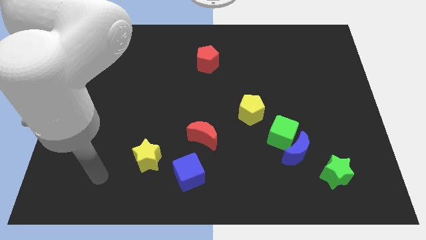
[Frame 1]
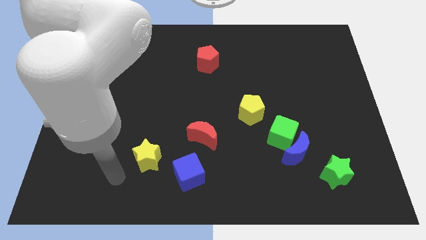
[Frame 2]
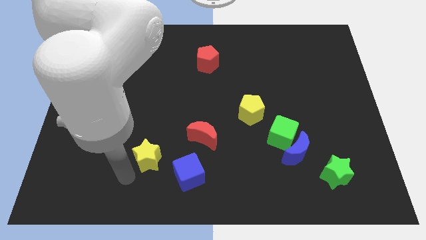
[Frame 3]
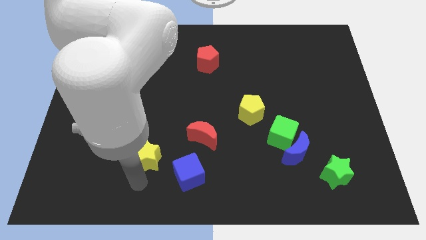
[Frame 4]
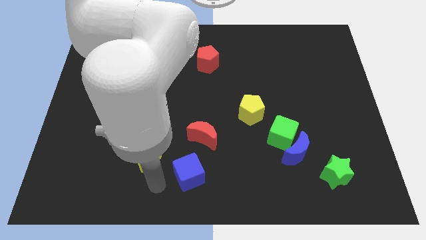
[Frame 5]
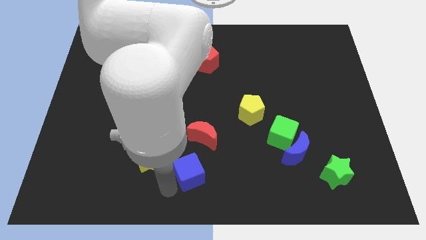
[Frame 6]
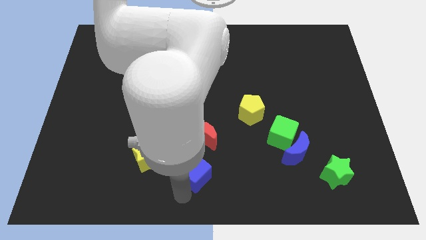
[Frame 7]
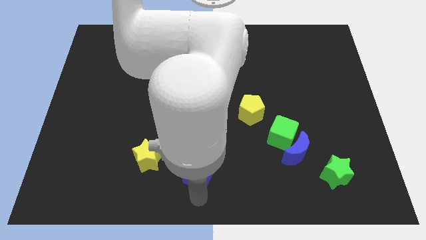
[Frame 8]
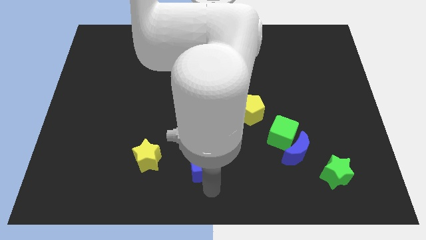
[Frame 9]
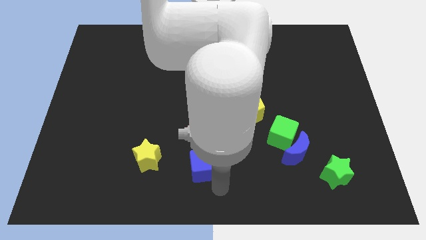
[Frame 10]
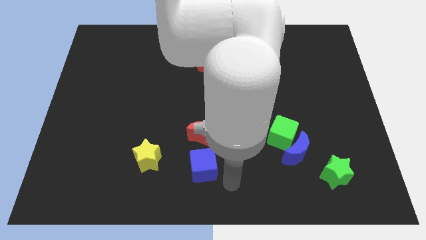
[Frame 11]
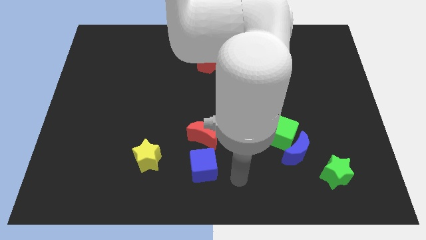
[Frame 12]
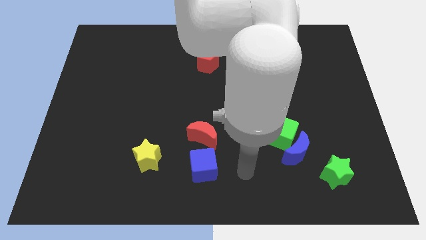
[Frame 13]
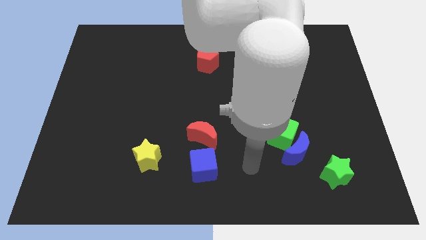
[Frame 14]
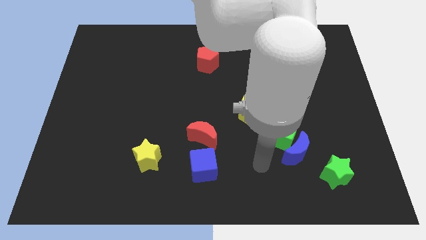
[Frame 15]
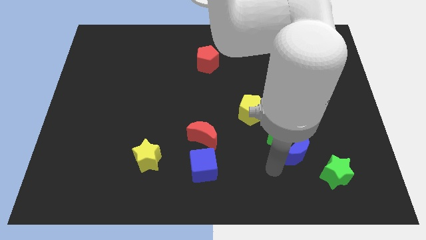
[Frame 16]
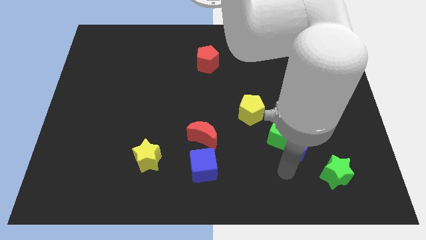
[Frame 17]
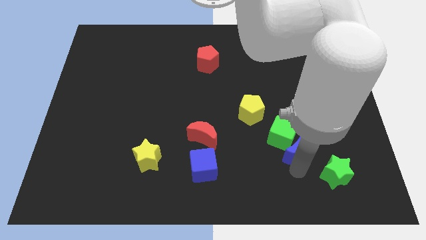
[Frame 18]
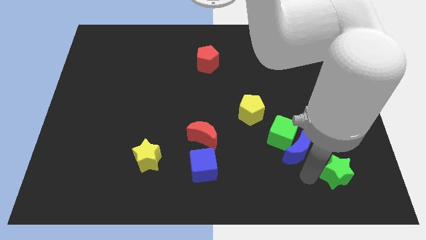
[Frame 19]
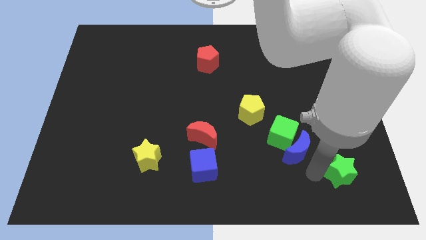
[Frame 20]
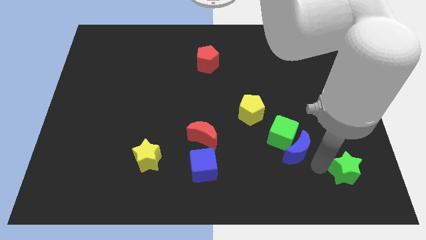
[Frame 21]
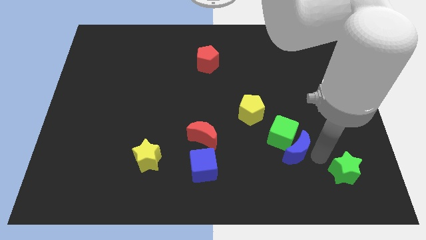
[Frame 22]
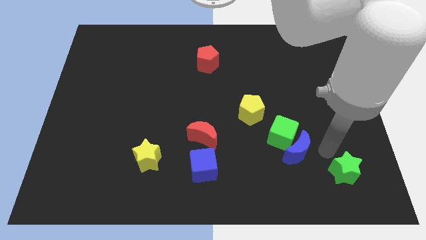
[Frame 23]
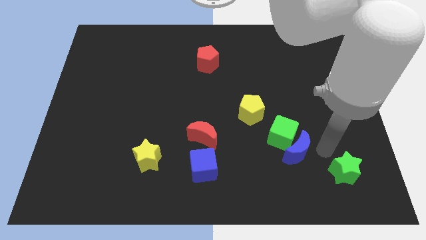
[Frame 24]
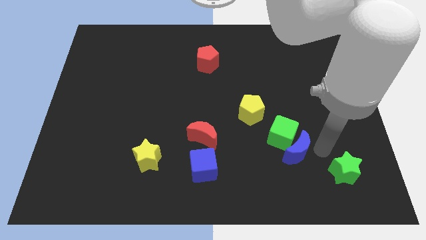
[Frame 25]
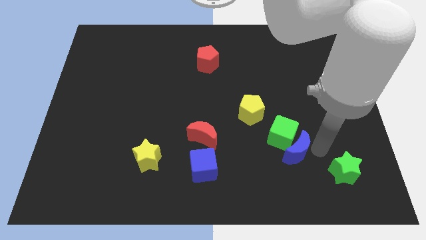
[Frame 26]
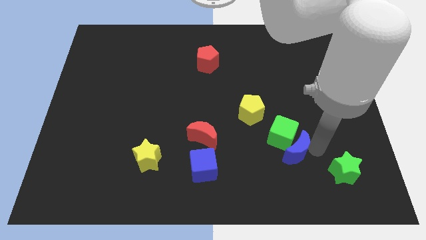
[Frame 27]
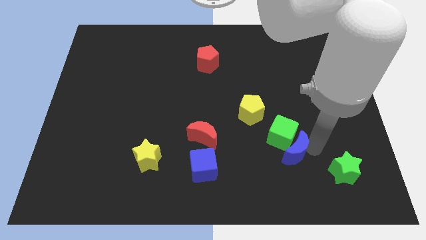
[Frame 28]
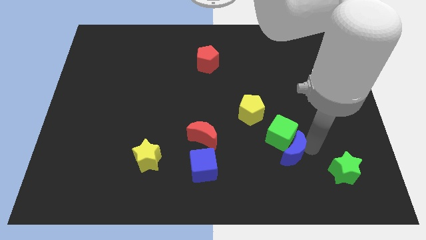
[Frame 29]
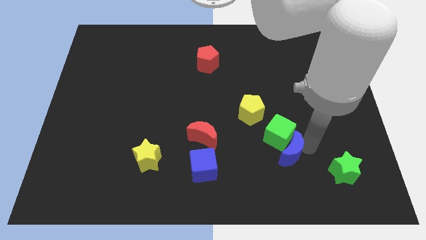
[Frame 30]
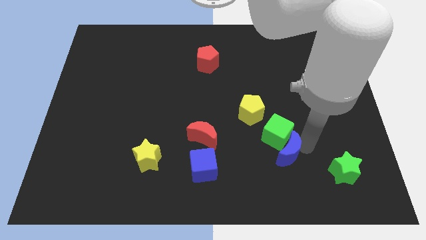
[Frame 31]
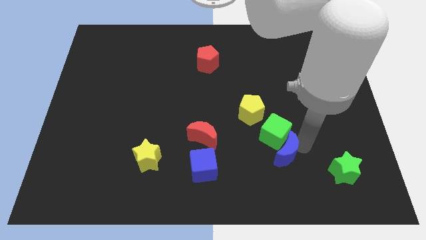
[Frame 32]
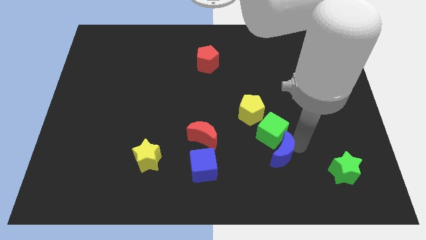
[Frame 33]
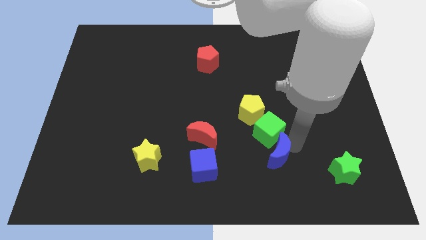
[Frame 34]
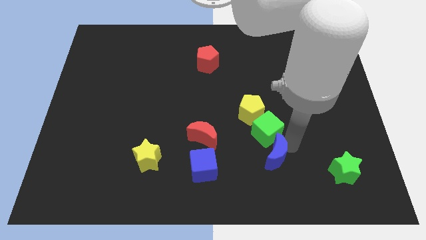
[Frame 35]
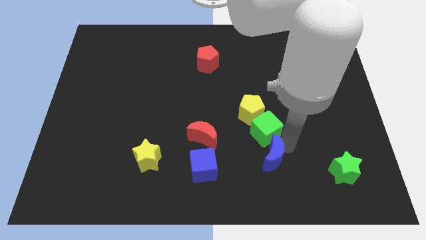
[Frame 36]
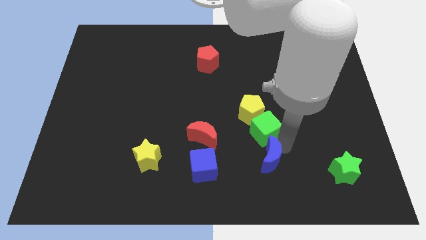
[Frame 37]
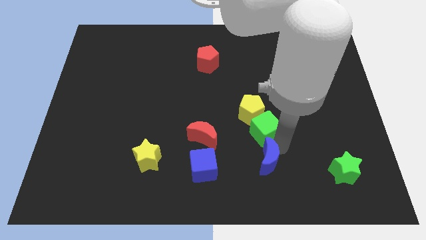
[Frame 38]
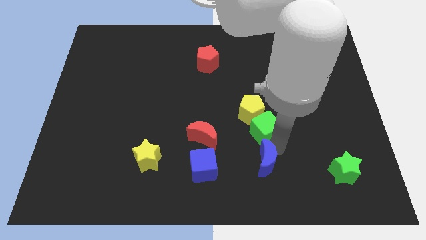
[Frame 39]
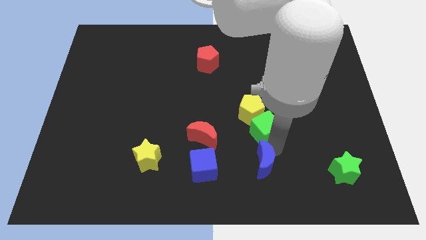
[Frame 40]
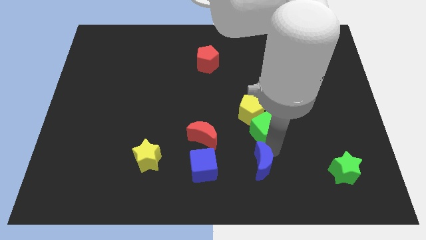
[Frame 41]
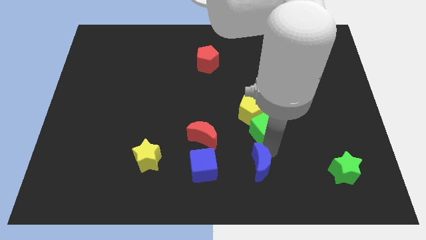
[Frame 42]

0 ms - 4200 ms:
move the blue moon away from the green cube and green star

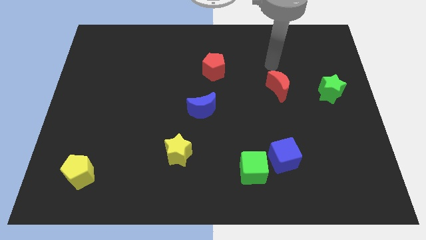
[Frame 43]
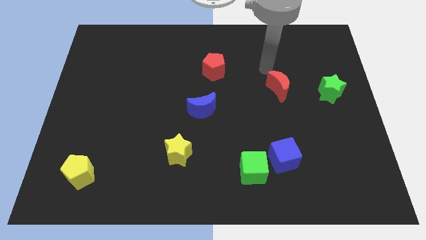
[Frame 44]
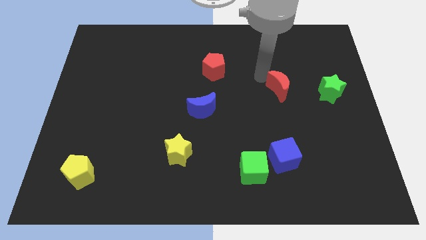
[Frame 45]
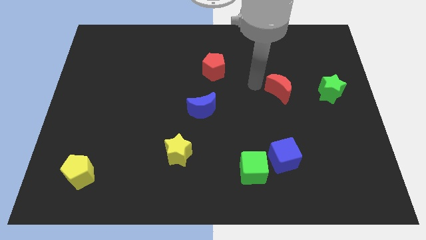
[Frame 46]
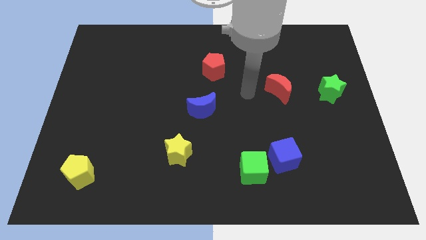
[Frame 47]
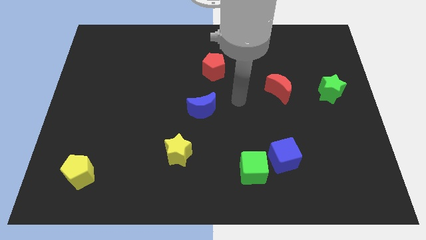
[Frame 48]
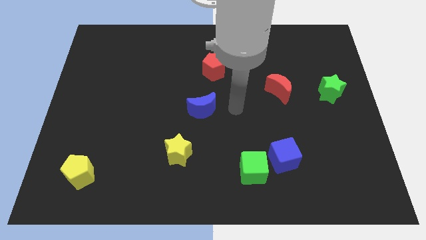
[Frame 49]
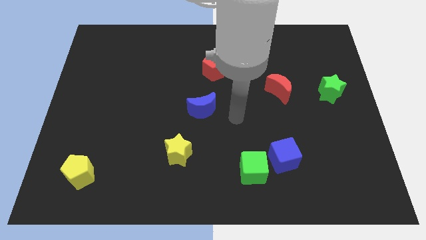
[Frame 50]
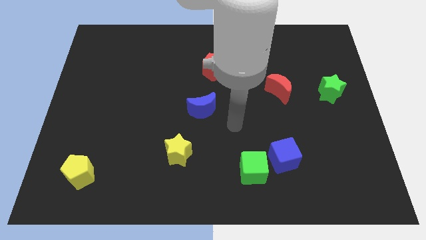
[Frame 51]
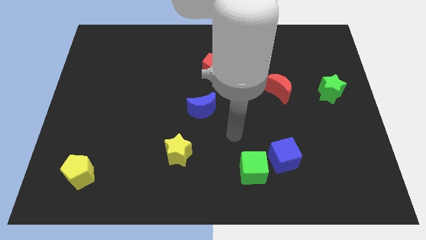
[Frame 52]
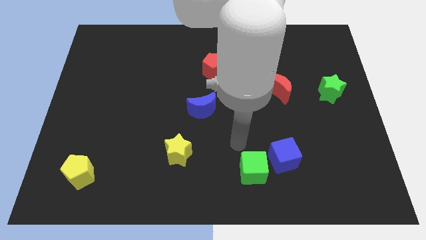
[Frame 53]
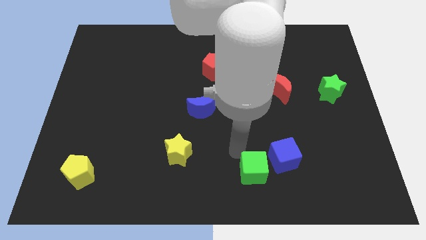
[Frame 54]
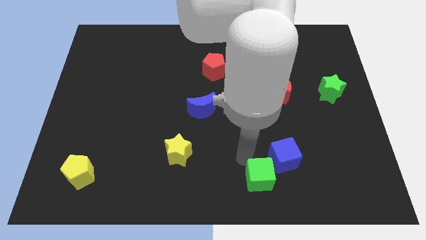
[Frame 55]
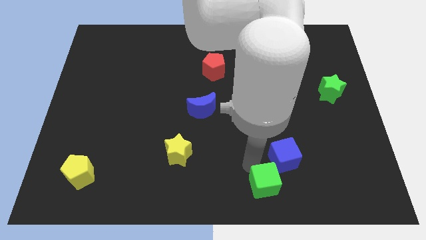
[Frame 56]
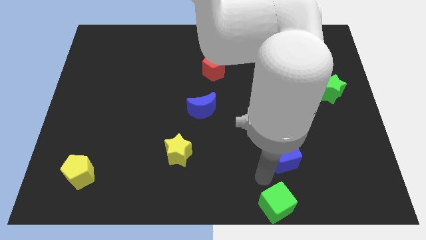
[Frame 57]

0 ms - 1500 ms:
pull the blue cube apart from the green cube

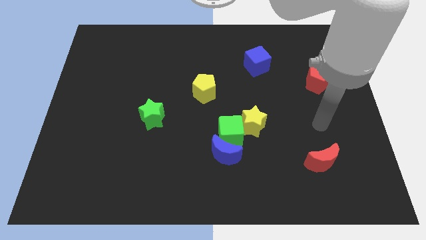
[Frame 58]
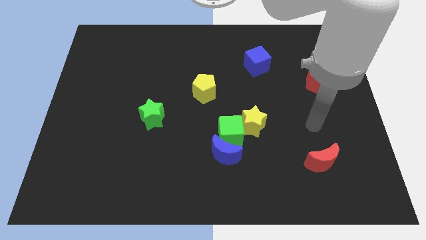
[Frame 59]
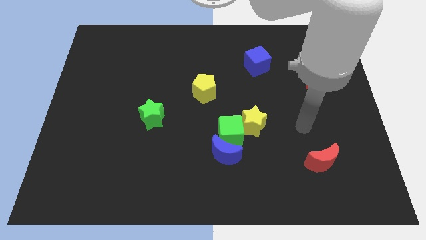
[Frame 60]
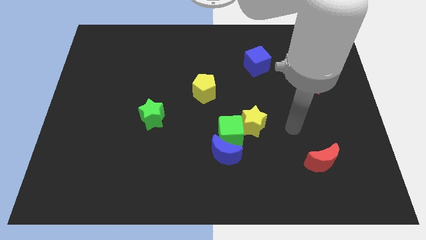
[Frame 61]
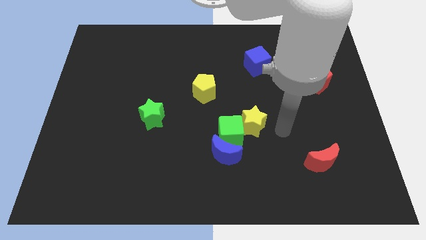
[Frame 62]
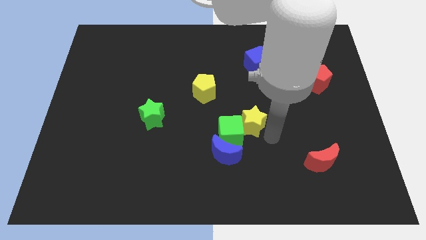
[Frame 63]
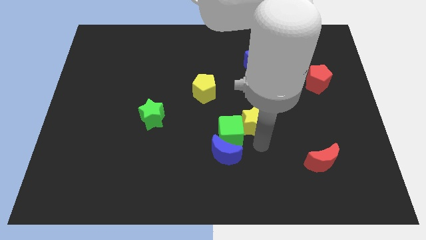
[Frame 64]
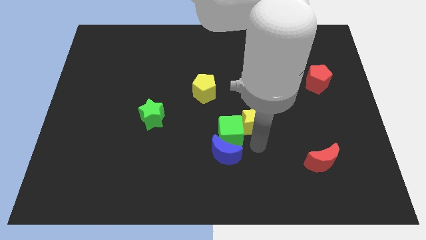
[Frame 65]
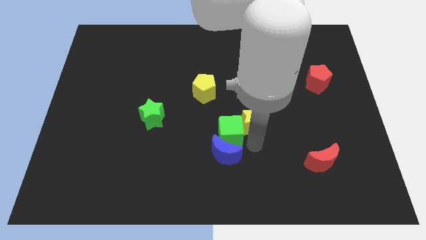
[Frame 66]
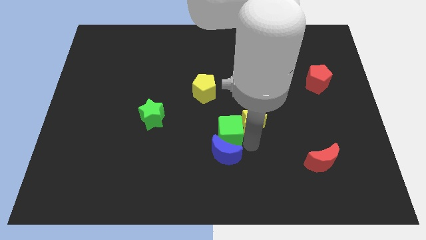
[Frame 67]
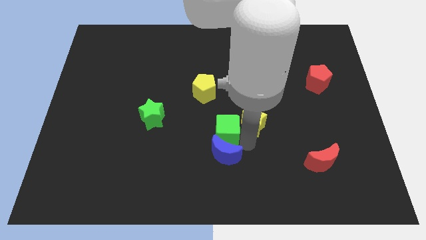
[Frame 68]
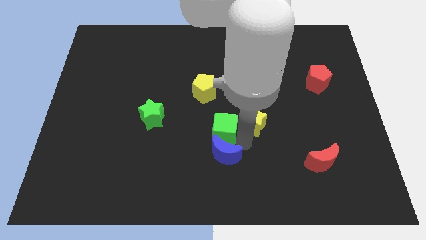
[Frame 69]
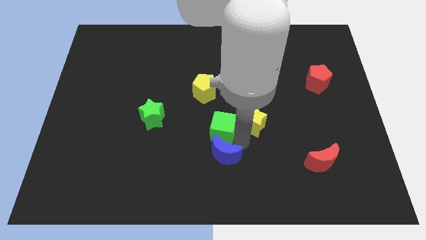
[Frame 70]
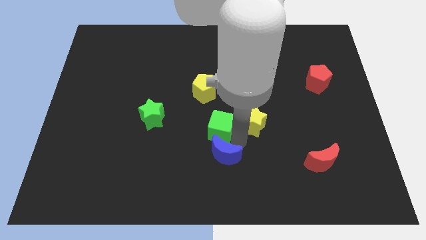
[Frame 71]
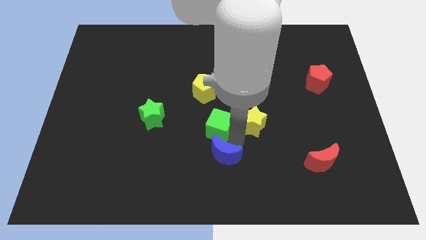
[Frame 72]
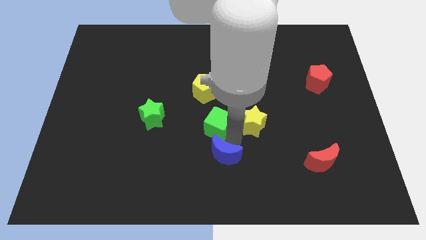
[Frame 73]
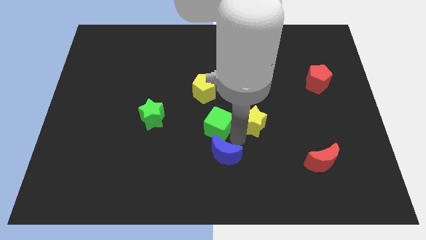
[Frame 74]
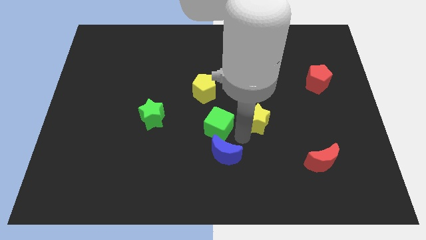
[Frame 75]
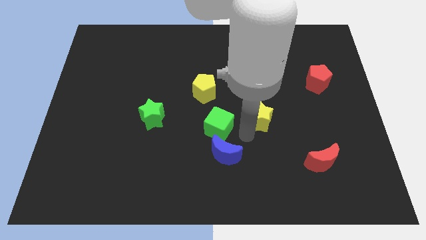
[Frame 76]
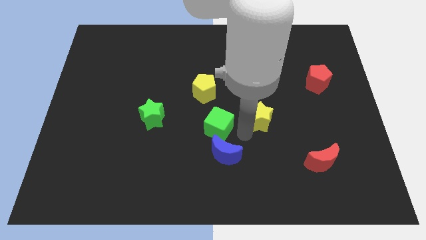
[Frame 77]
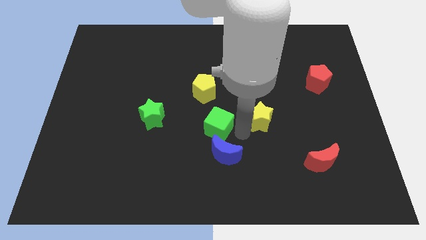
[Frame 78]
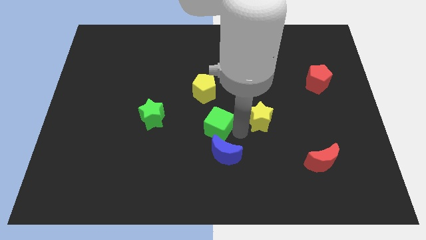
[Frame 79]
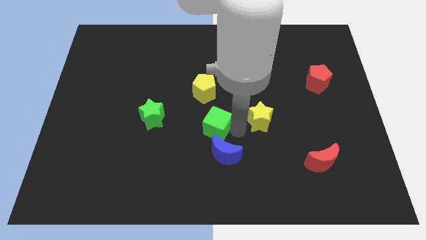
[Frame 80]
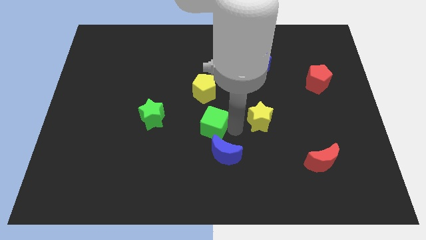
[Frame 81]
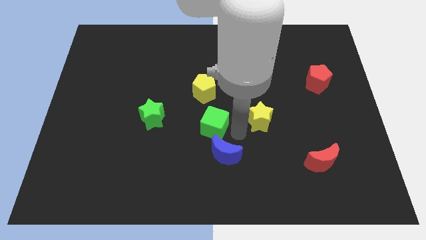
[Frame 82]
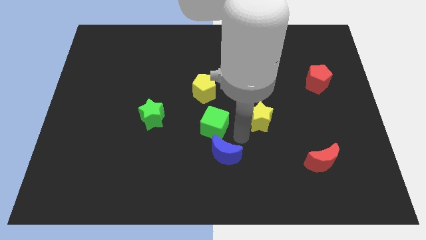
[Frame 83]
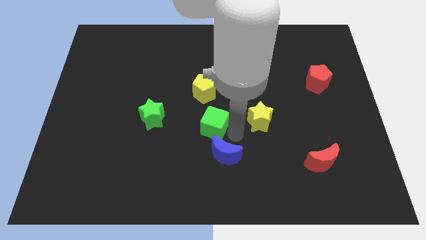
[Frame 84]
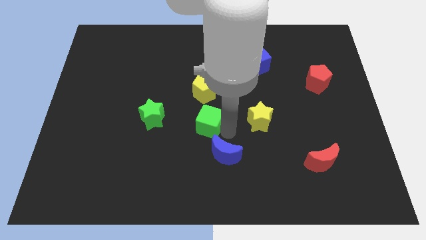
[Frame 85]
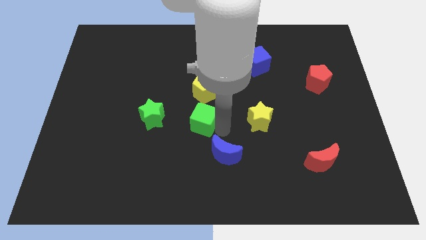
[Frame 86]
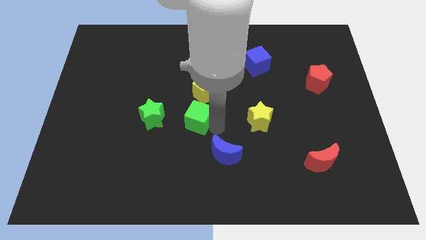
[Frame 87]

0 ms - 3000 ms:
separate the green cube from the blue moon and yellow star

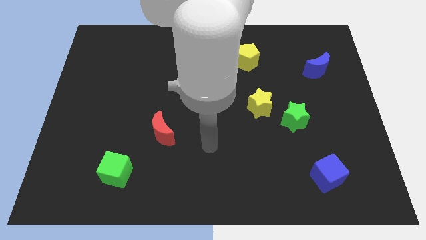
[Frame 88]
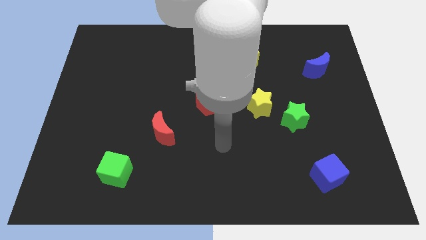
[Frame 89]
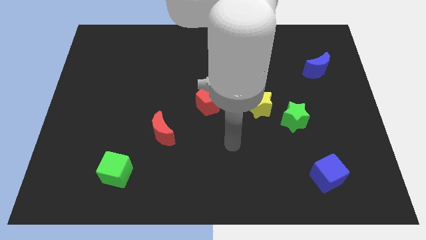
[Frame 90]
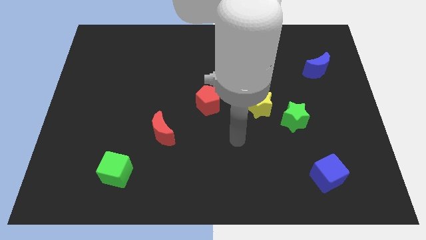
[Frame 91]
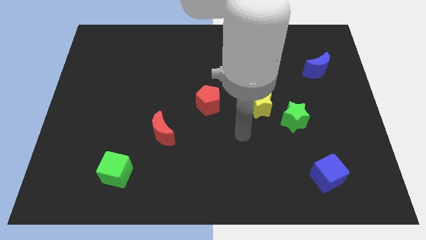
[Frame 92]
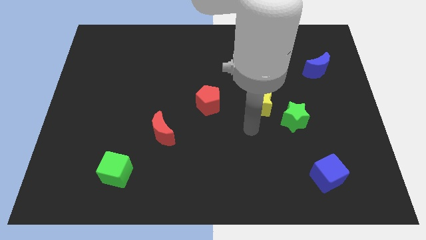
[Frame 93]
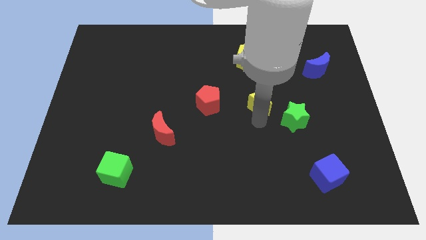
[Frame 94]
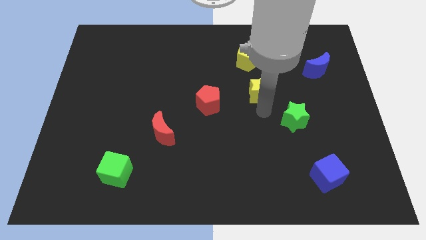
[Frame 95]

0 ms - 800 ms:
move the green star away from the yellow star
